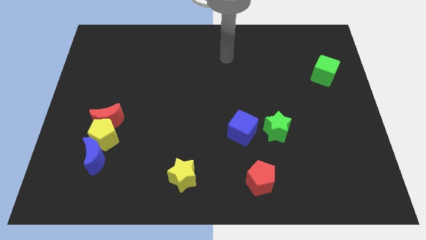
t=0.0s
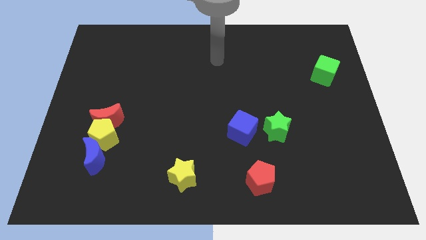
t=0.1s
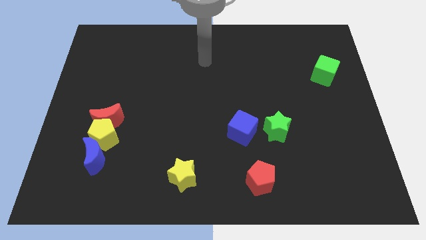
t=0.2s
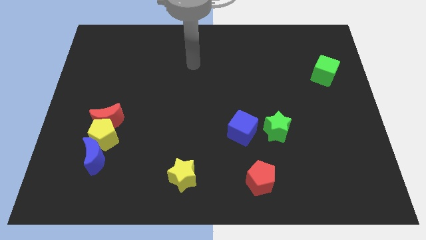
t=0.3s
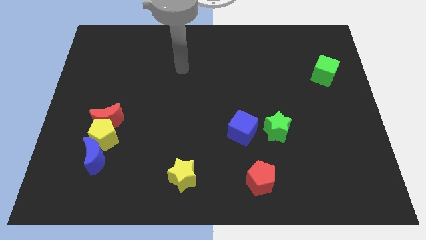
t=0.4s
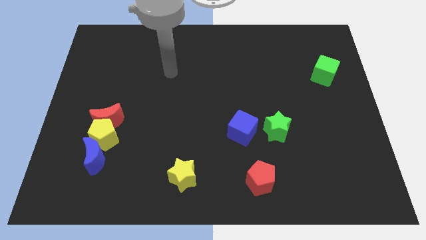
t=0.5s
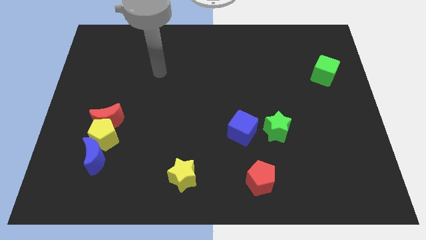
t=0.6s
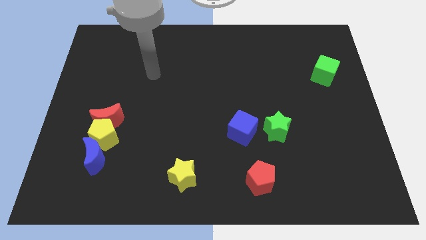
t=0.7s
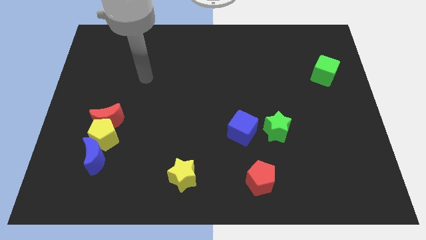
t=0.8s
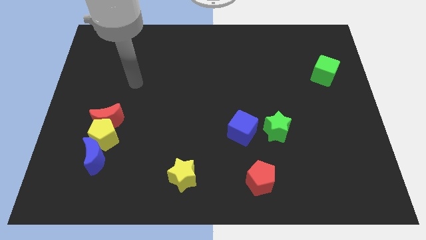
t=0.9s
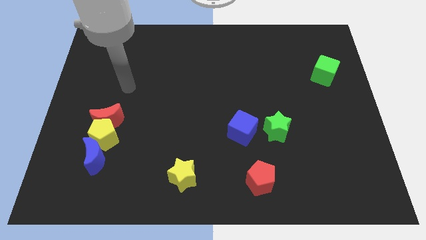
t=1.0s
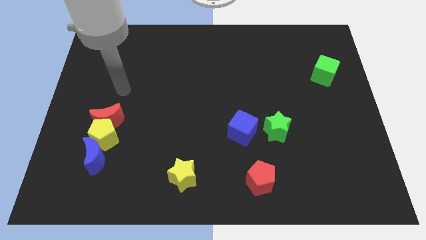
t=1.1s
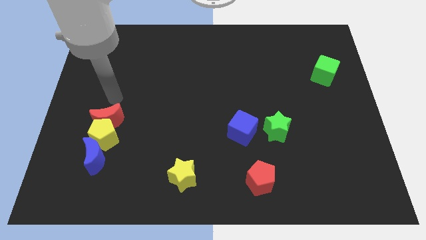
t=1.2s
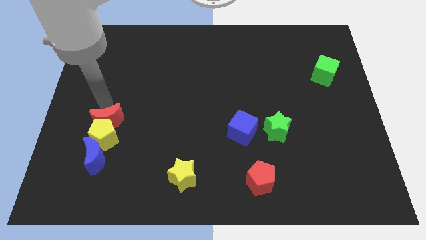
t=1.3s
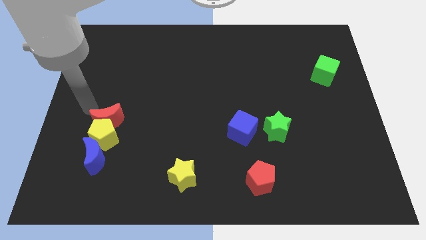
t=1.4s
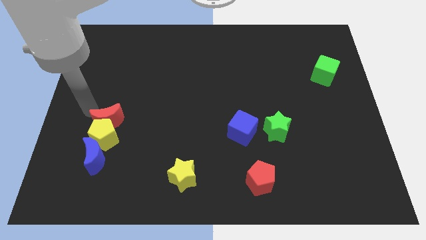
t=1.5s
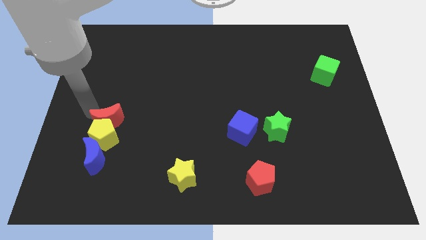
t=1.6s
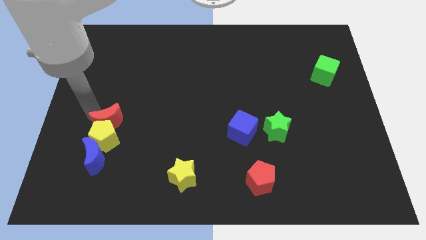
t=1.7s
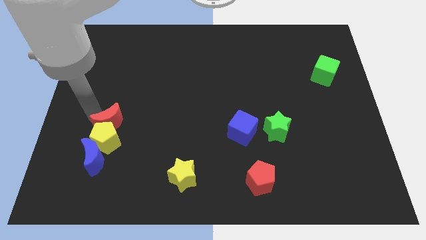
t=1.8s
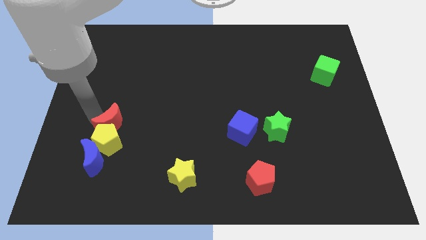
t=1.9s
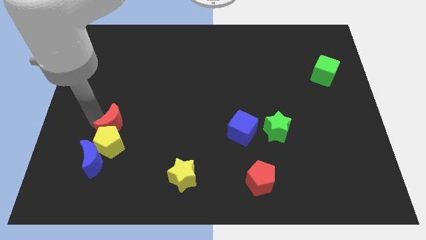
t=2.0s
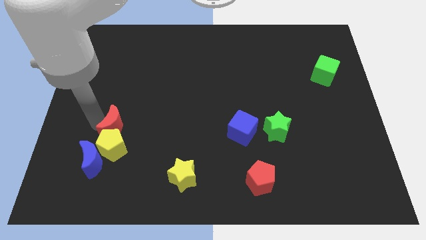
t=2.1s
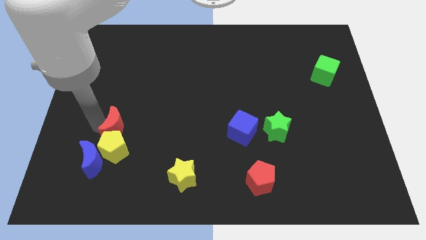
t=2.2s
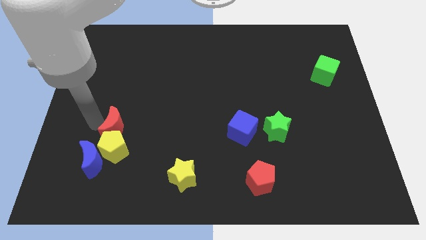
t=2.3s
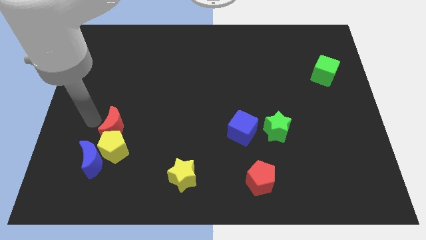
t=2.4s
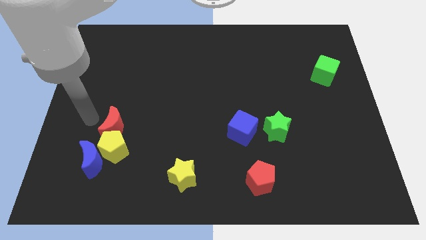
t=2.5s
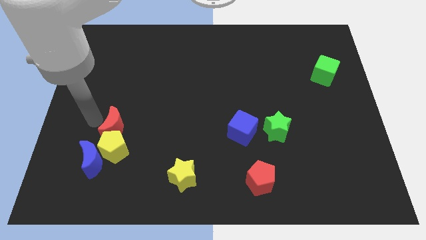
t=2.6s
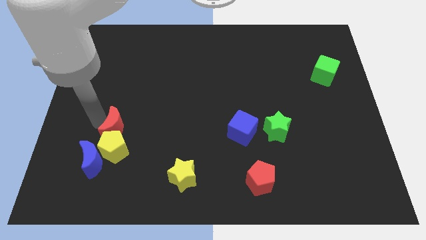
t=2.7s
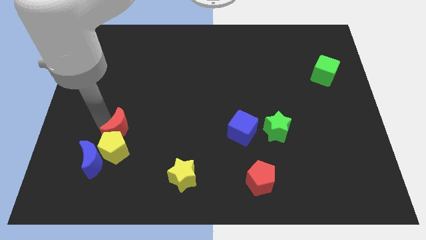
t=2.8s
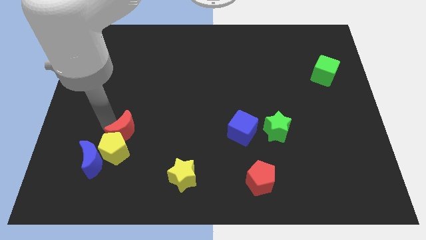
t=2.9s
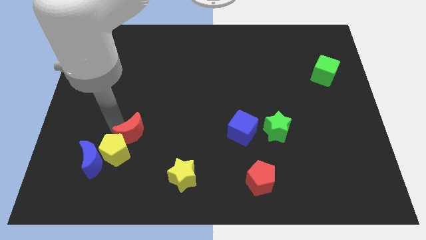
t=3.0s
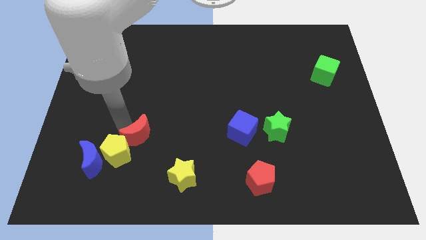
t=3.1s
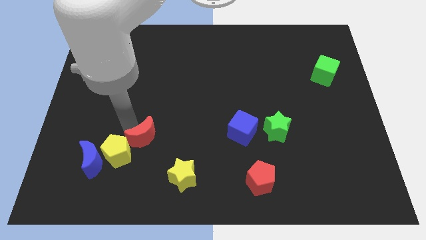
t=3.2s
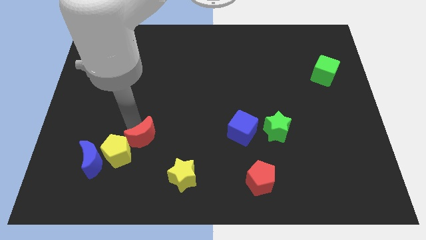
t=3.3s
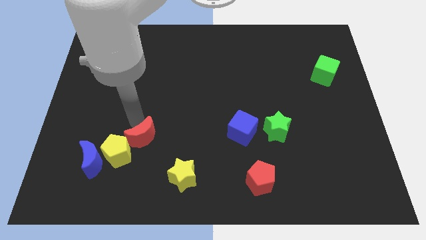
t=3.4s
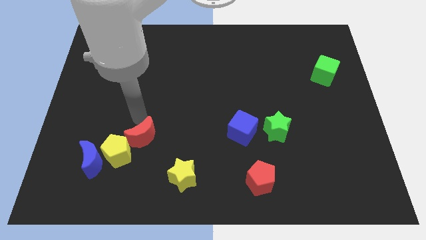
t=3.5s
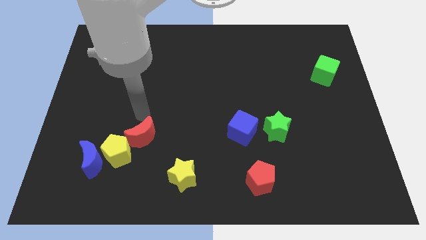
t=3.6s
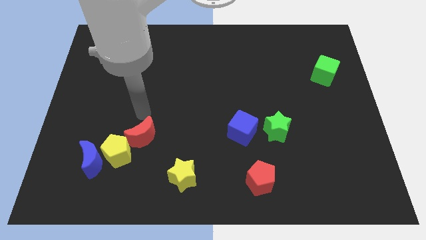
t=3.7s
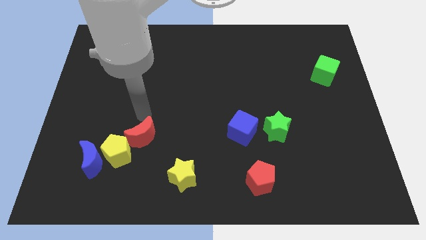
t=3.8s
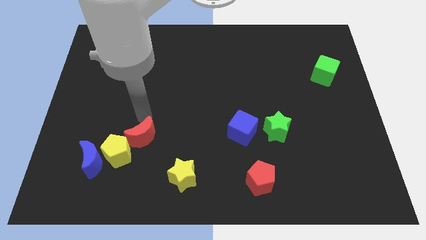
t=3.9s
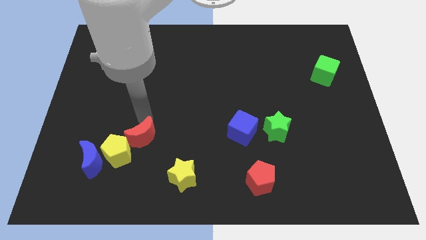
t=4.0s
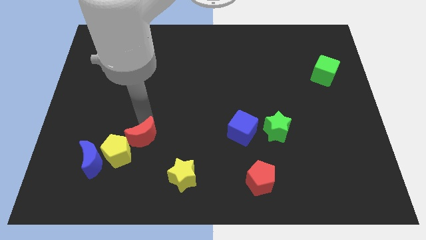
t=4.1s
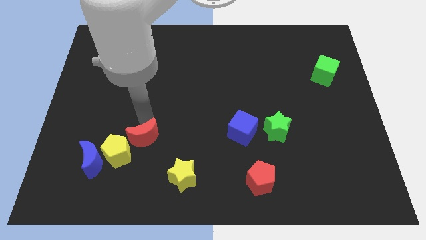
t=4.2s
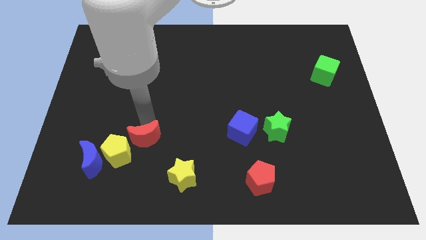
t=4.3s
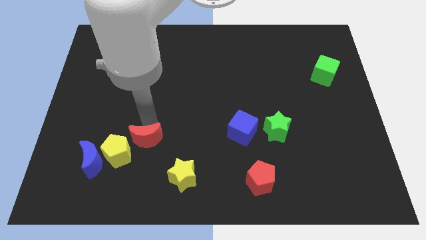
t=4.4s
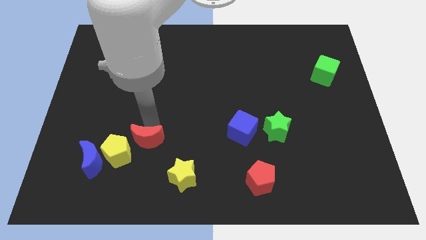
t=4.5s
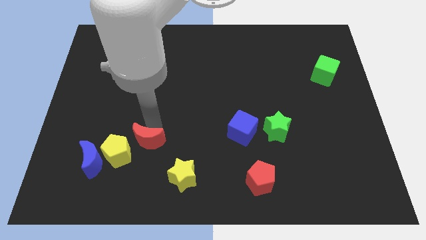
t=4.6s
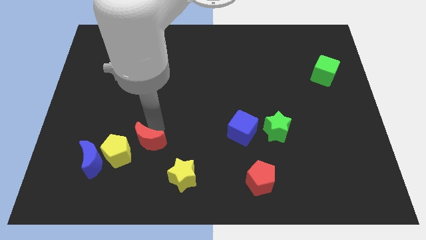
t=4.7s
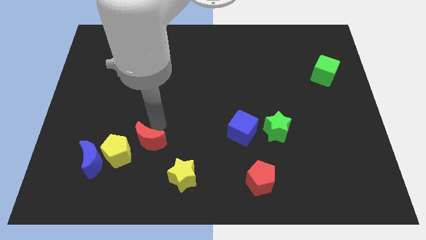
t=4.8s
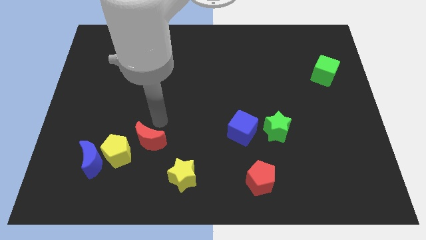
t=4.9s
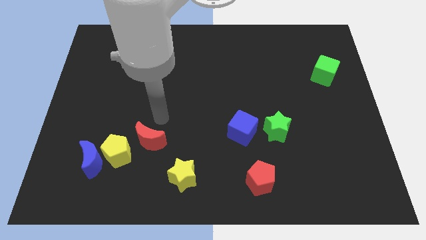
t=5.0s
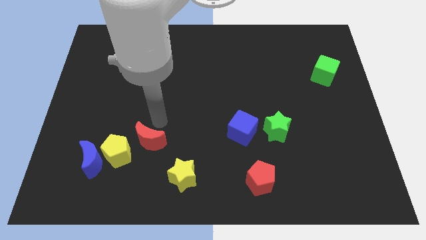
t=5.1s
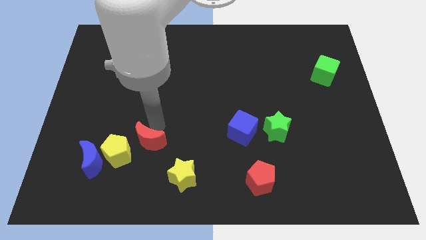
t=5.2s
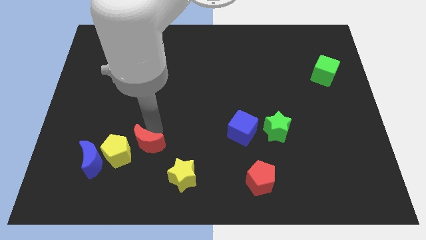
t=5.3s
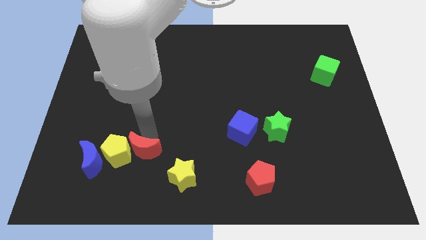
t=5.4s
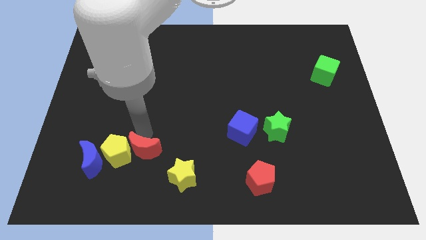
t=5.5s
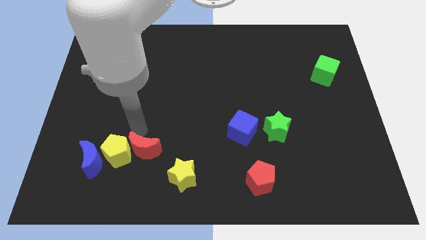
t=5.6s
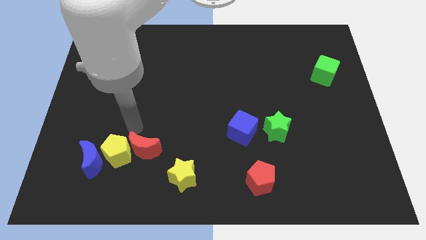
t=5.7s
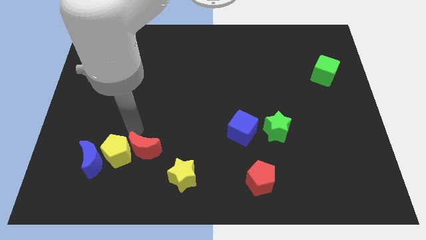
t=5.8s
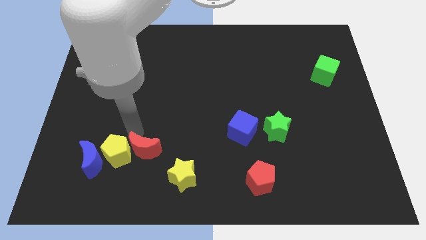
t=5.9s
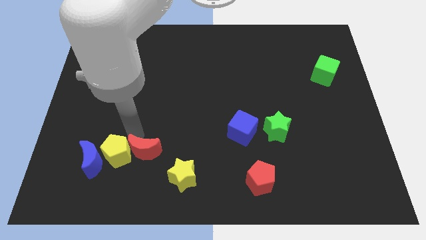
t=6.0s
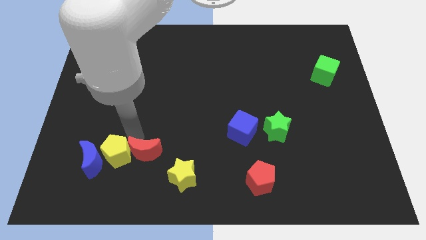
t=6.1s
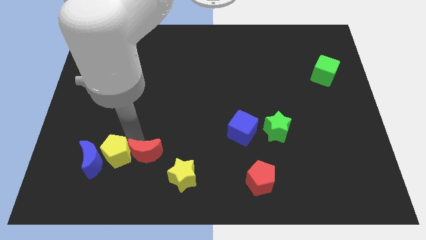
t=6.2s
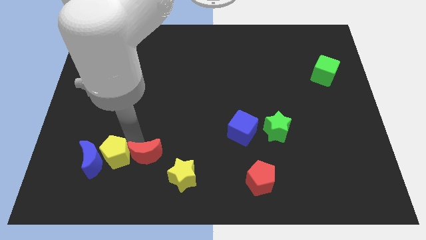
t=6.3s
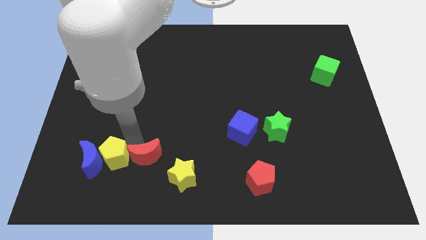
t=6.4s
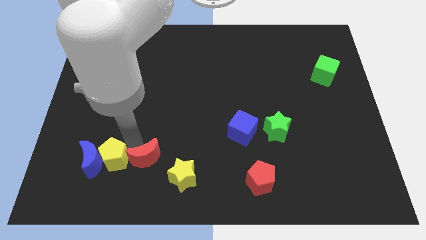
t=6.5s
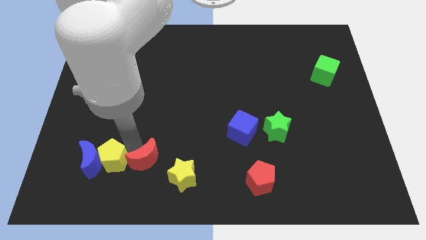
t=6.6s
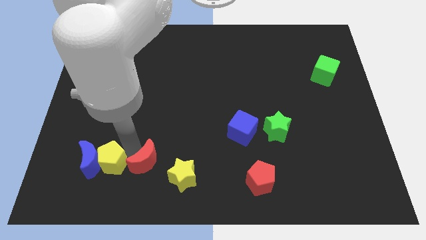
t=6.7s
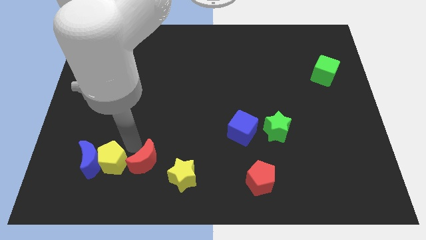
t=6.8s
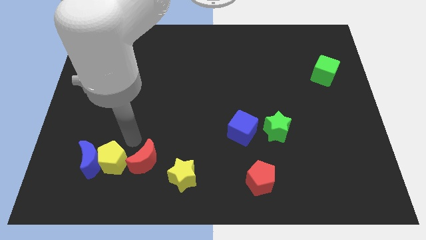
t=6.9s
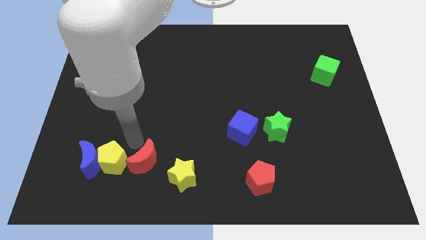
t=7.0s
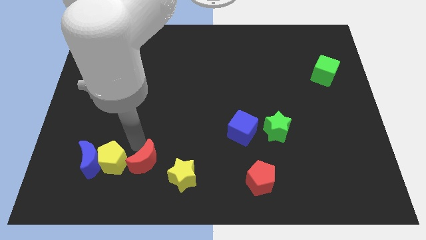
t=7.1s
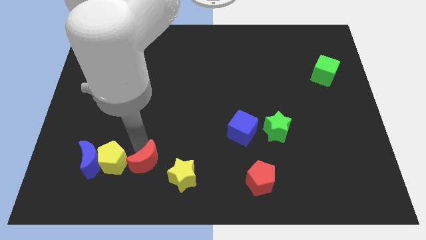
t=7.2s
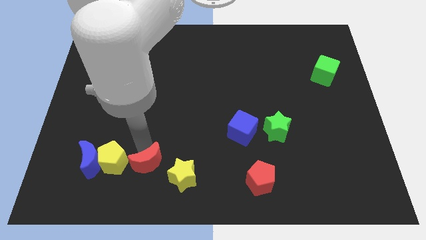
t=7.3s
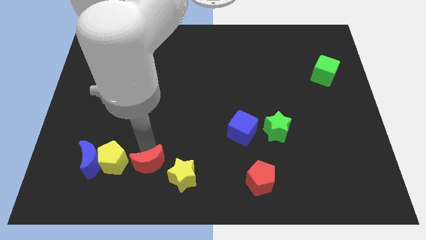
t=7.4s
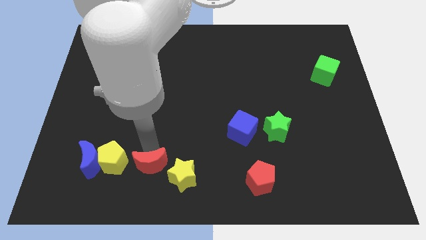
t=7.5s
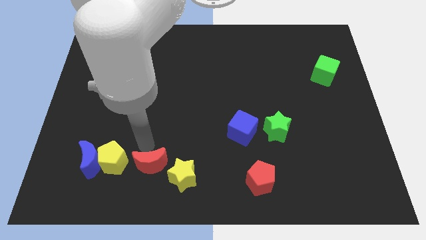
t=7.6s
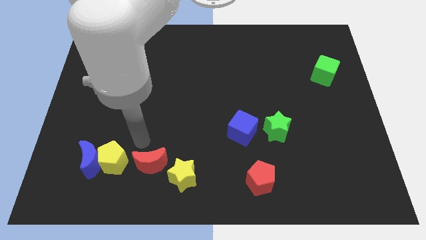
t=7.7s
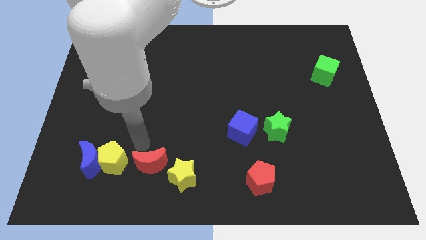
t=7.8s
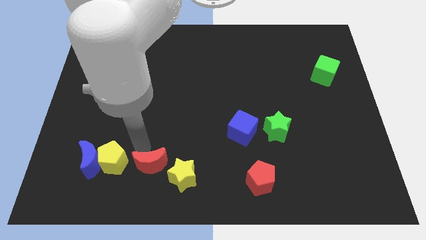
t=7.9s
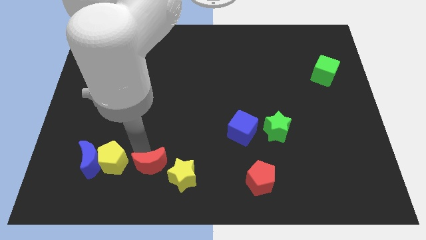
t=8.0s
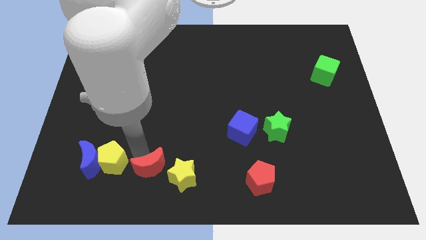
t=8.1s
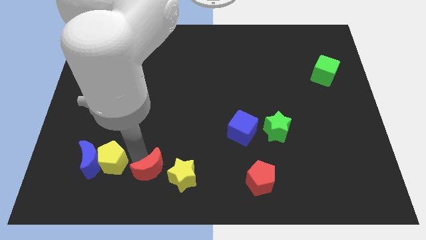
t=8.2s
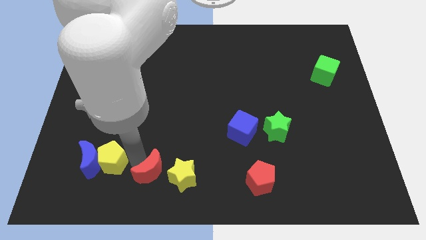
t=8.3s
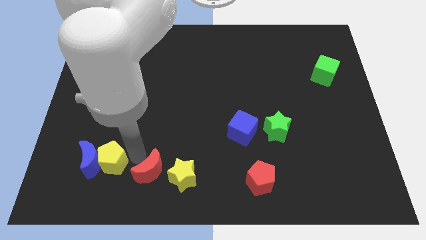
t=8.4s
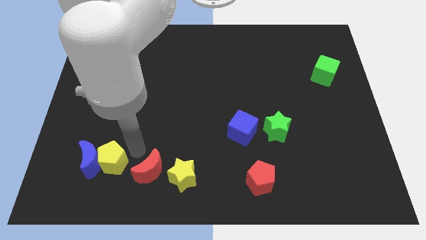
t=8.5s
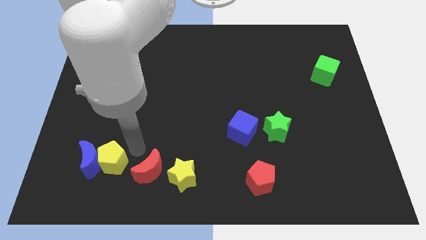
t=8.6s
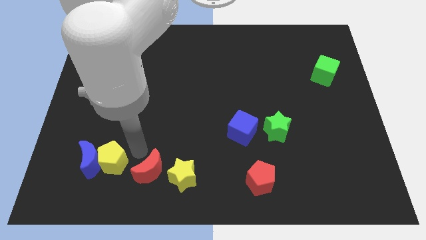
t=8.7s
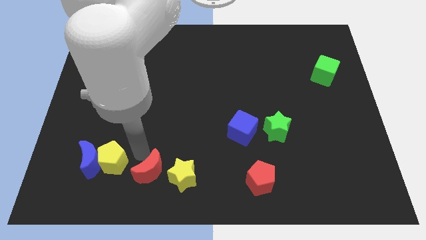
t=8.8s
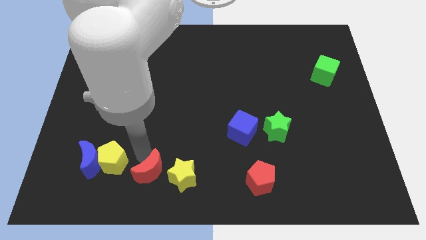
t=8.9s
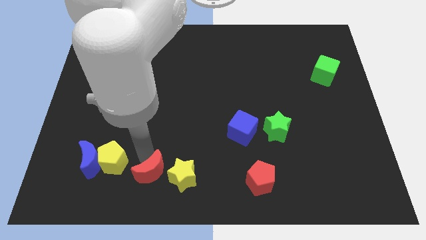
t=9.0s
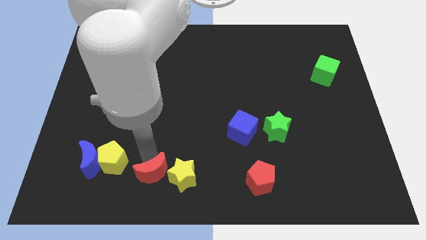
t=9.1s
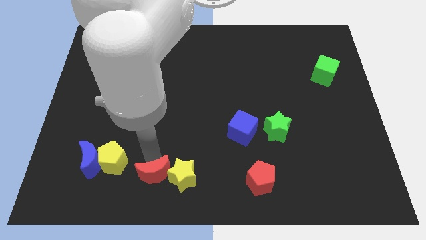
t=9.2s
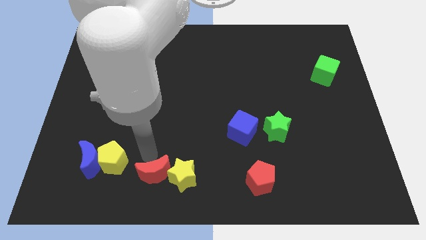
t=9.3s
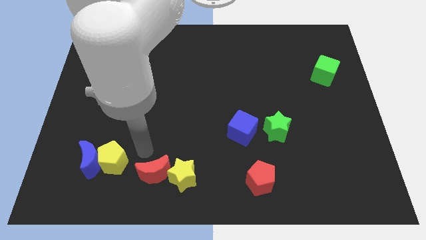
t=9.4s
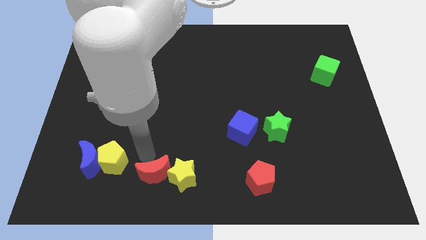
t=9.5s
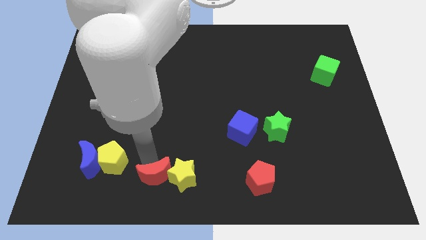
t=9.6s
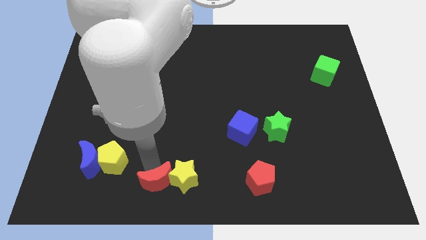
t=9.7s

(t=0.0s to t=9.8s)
push the red moon to the bottom side
